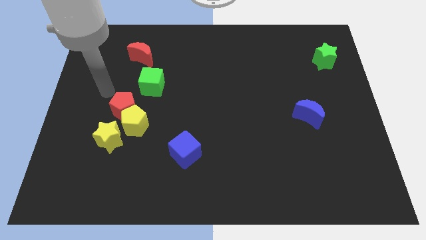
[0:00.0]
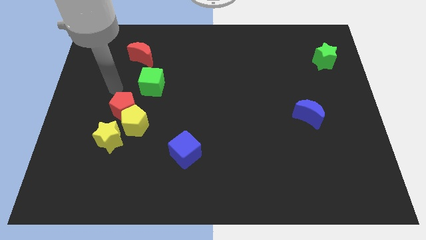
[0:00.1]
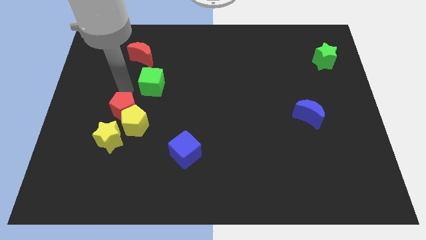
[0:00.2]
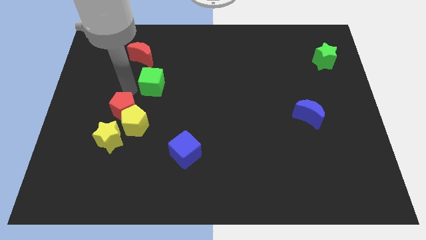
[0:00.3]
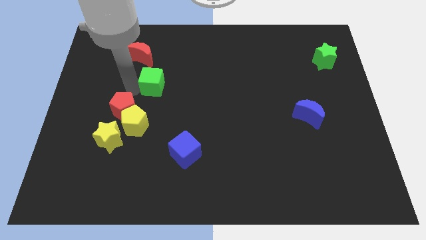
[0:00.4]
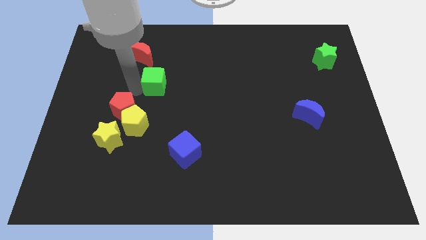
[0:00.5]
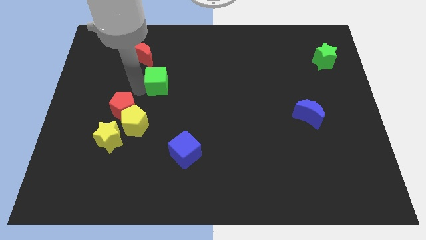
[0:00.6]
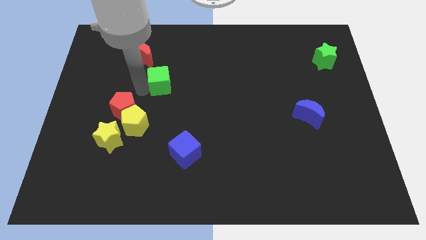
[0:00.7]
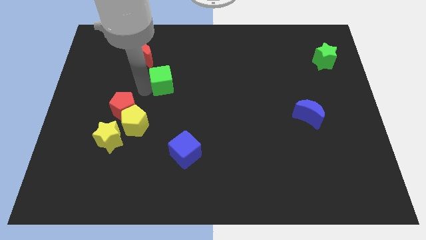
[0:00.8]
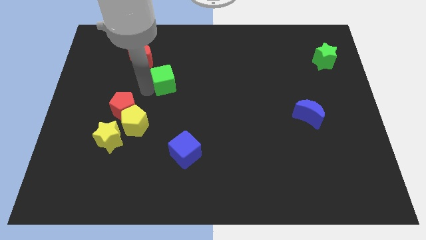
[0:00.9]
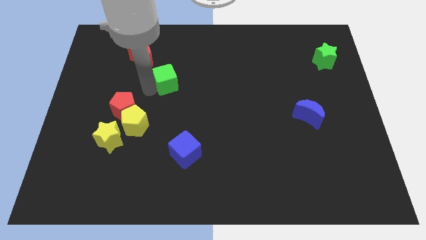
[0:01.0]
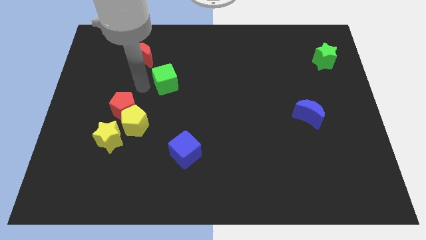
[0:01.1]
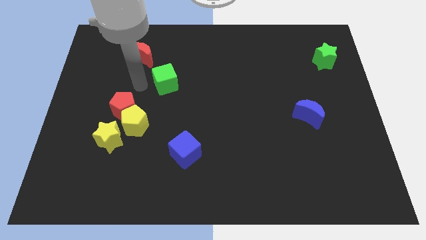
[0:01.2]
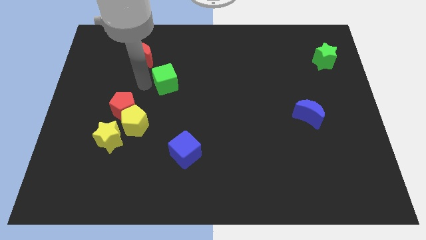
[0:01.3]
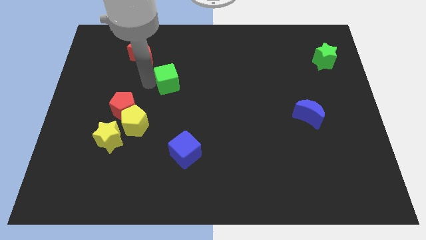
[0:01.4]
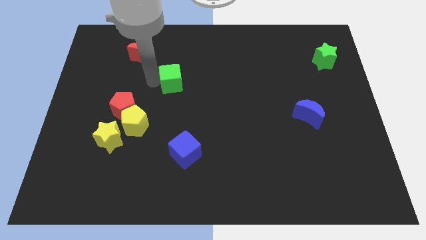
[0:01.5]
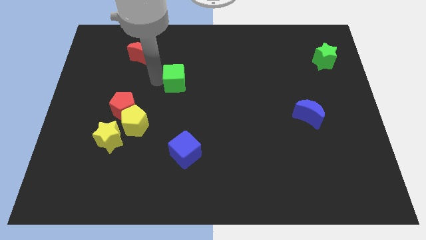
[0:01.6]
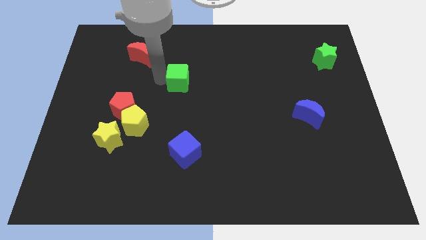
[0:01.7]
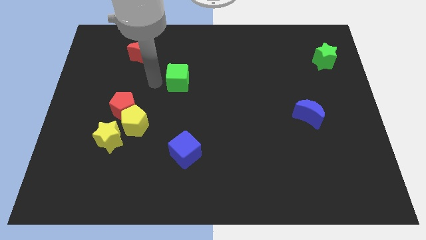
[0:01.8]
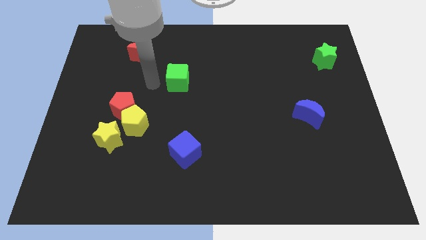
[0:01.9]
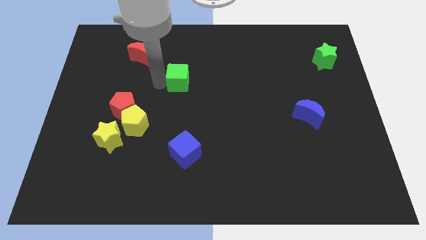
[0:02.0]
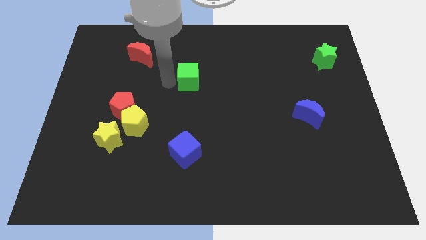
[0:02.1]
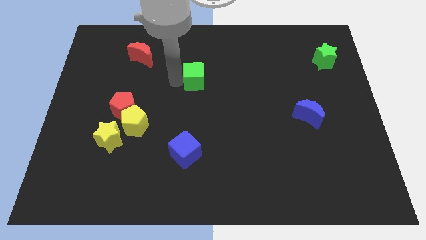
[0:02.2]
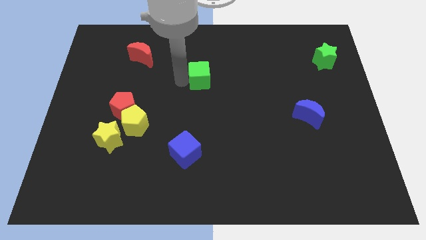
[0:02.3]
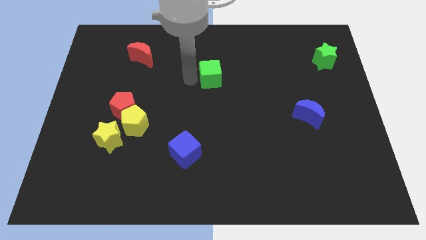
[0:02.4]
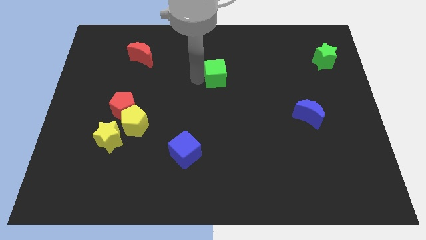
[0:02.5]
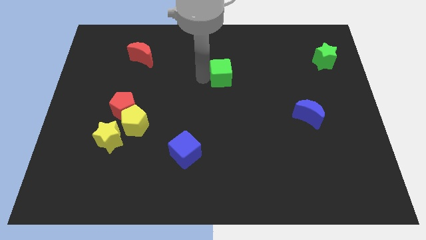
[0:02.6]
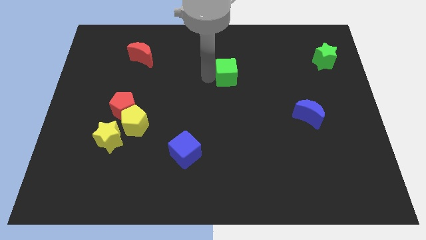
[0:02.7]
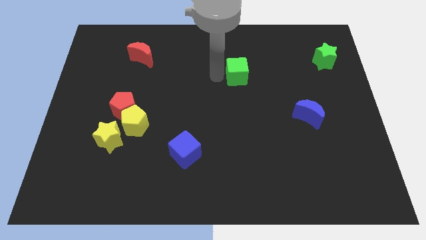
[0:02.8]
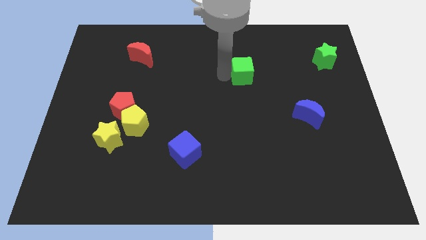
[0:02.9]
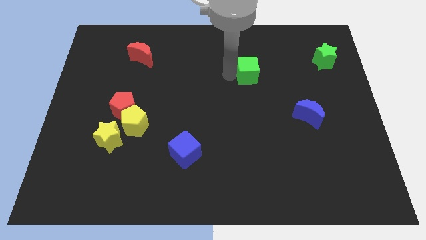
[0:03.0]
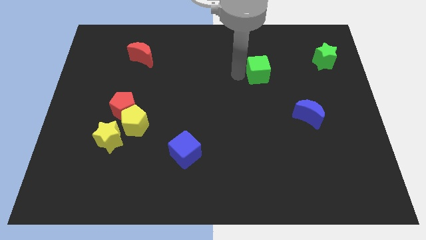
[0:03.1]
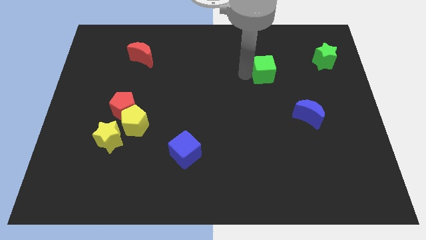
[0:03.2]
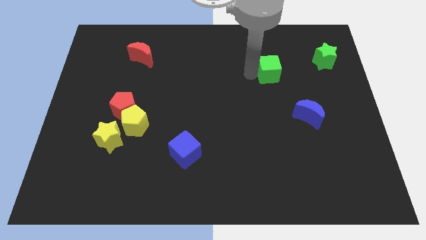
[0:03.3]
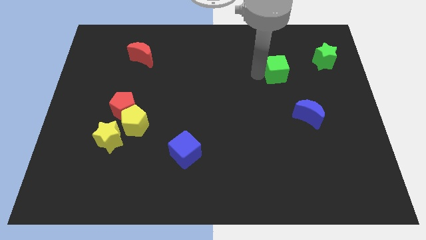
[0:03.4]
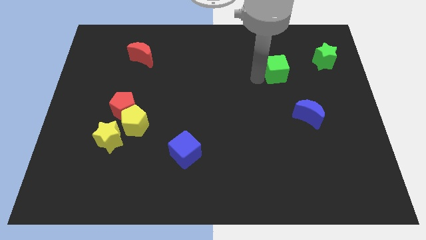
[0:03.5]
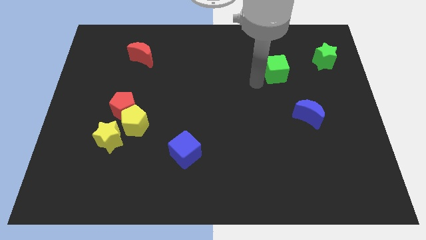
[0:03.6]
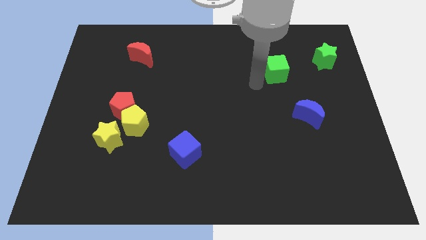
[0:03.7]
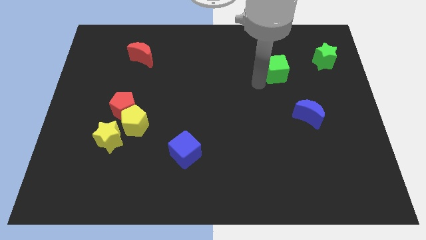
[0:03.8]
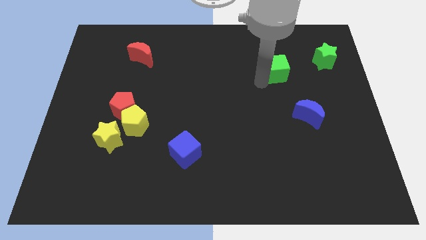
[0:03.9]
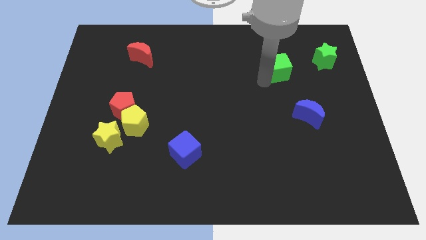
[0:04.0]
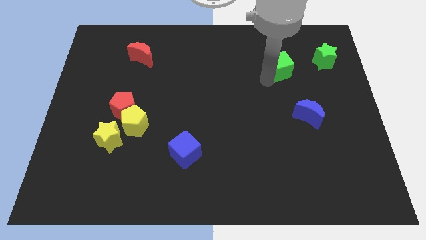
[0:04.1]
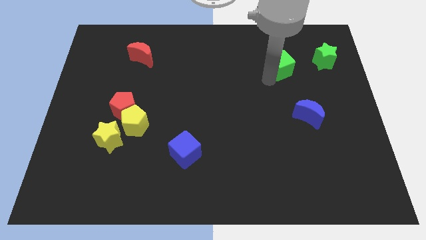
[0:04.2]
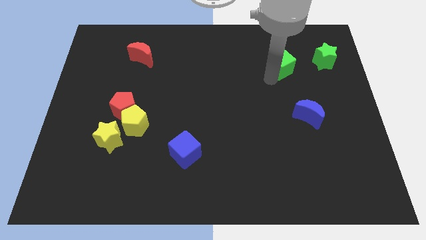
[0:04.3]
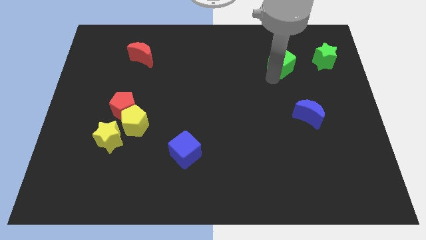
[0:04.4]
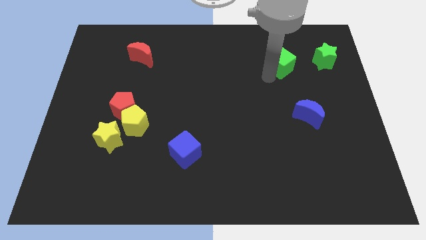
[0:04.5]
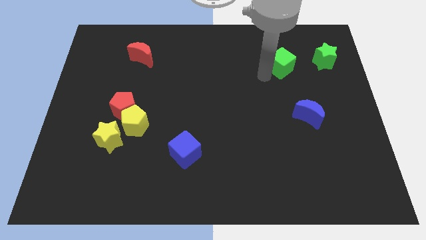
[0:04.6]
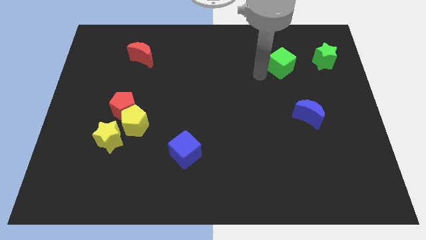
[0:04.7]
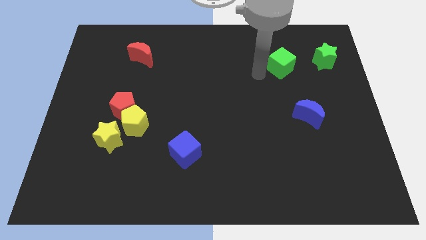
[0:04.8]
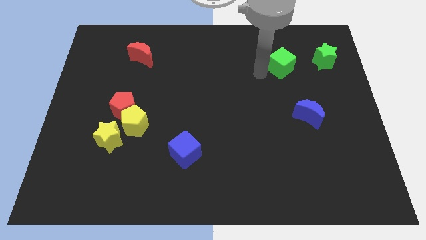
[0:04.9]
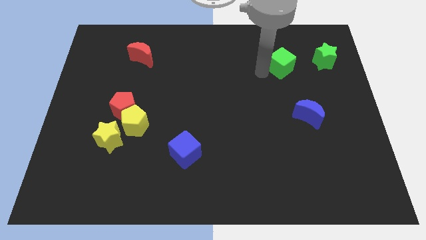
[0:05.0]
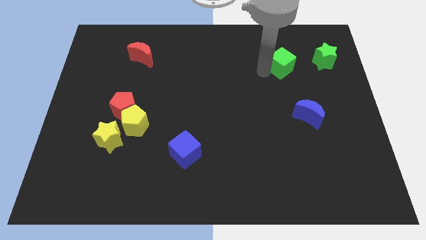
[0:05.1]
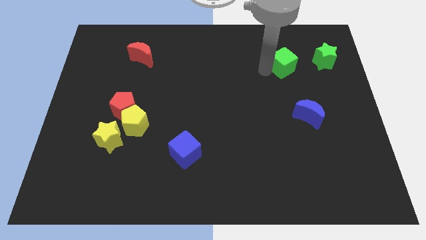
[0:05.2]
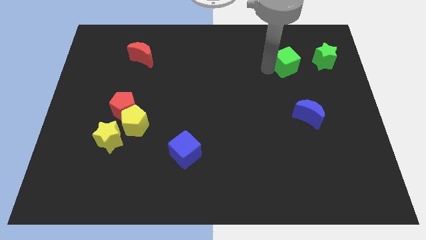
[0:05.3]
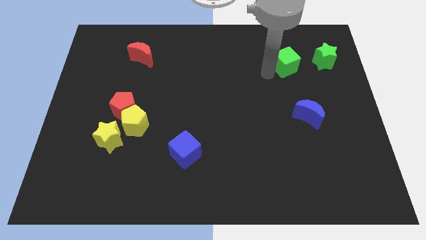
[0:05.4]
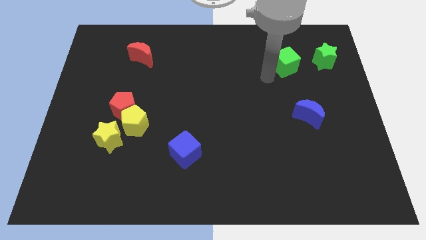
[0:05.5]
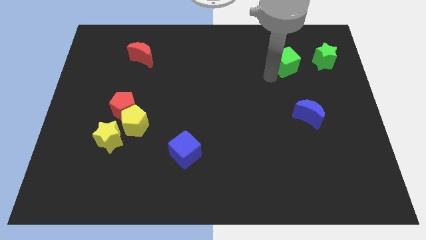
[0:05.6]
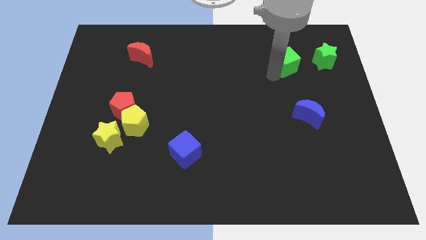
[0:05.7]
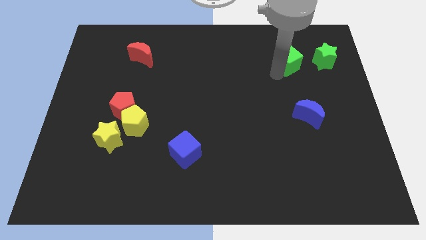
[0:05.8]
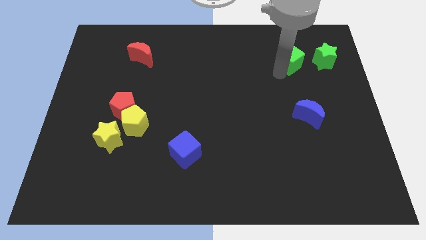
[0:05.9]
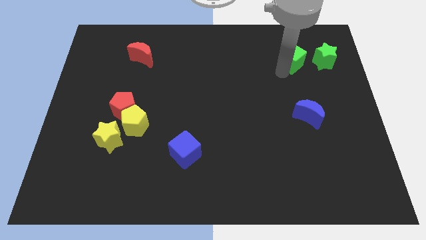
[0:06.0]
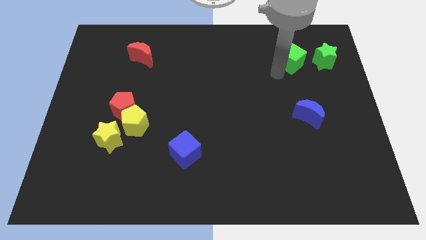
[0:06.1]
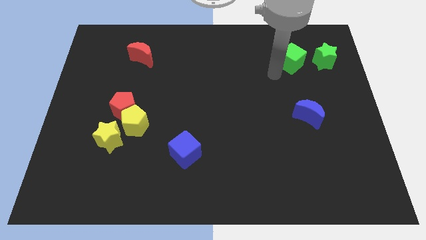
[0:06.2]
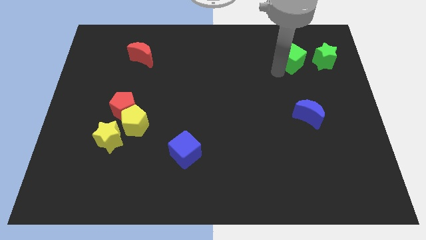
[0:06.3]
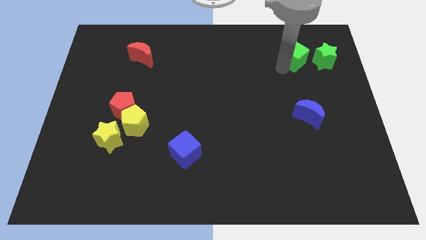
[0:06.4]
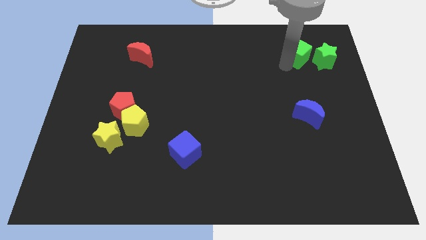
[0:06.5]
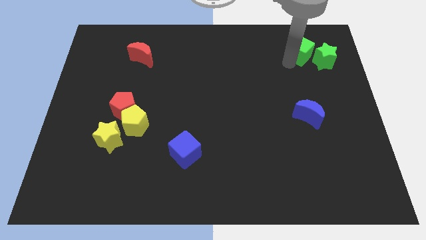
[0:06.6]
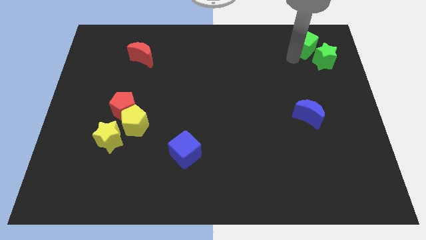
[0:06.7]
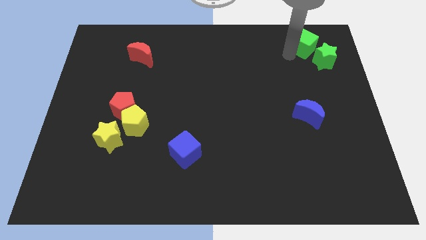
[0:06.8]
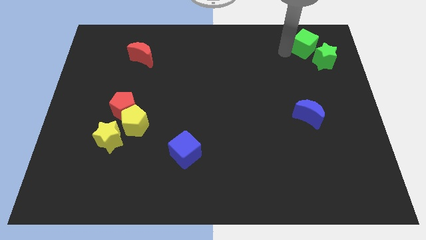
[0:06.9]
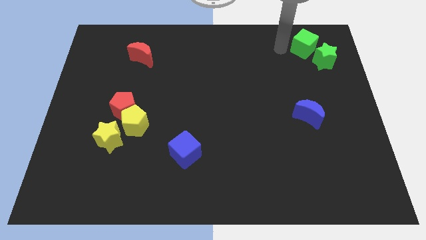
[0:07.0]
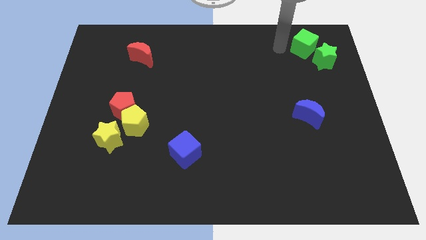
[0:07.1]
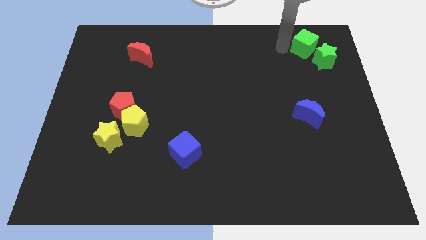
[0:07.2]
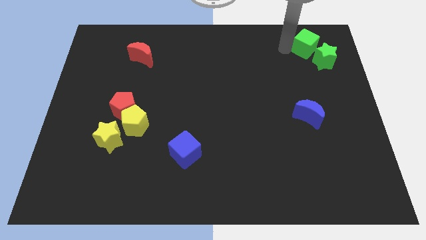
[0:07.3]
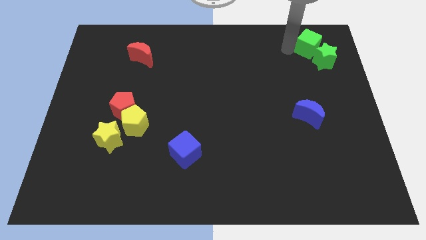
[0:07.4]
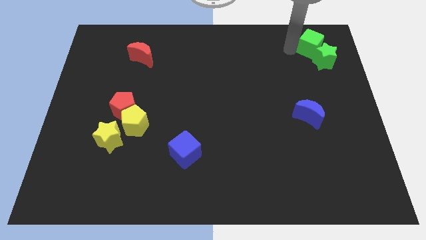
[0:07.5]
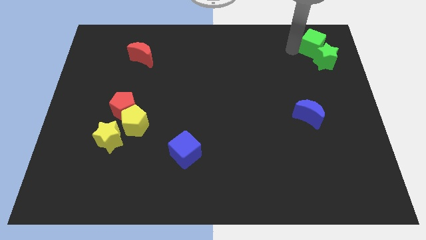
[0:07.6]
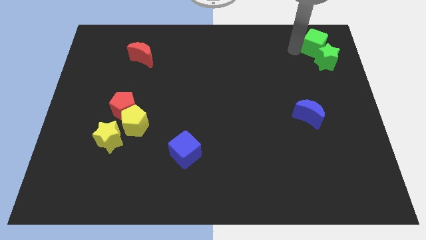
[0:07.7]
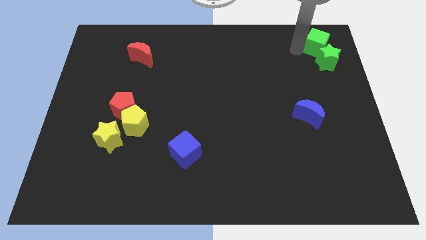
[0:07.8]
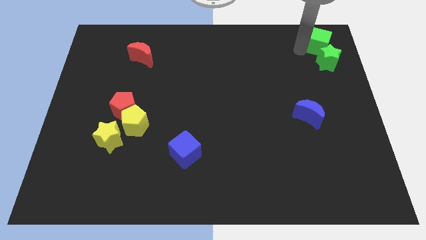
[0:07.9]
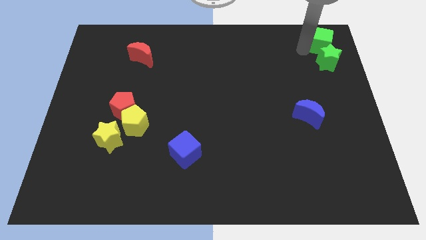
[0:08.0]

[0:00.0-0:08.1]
push the green cube to the top right of the board
